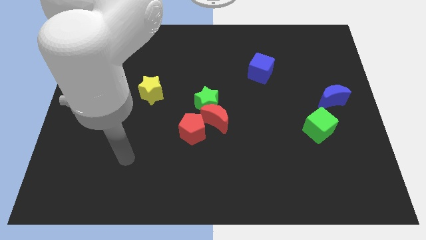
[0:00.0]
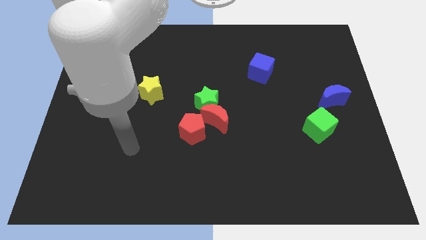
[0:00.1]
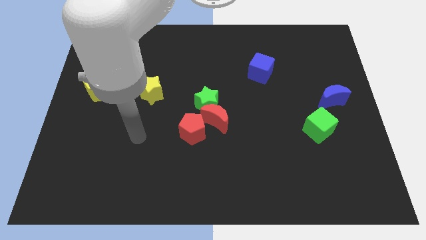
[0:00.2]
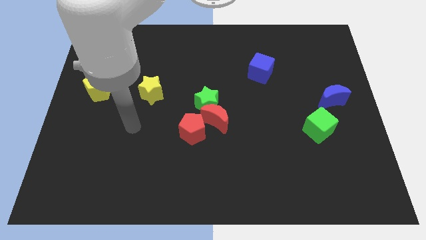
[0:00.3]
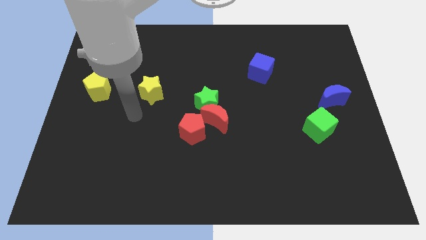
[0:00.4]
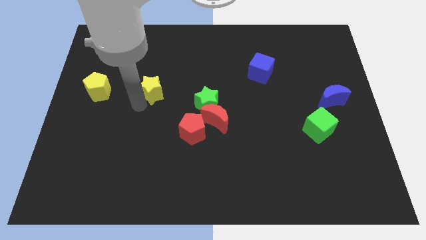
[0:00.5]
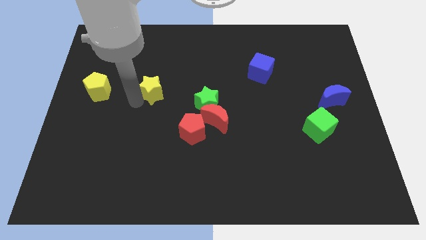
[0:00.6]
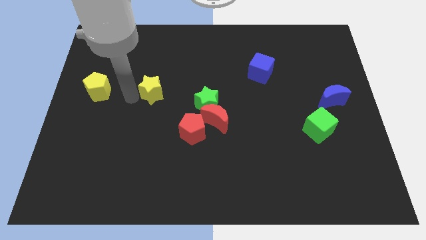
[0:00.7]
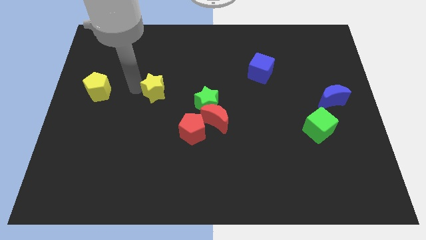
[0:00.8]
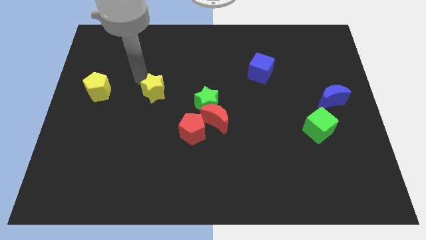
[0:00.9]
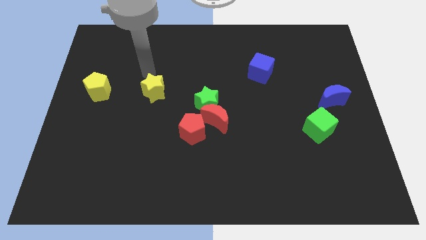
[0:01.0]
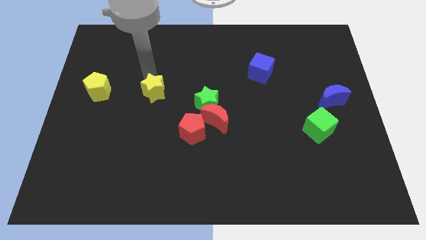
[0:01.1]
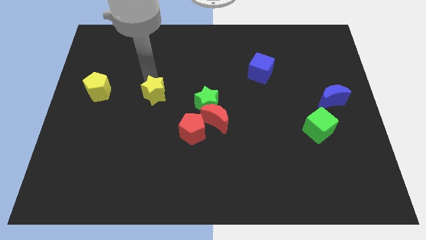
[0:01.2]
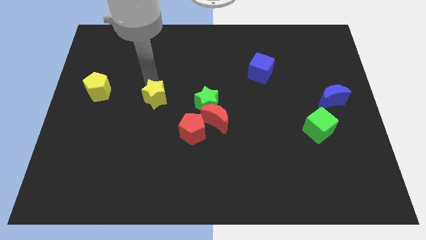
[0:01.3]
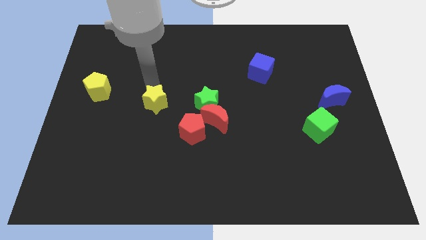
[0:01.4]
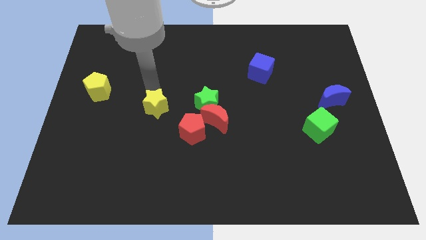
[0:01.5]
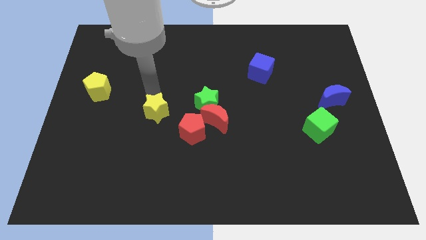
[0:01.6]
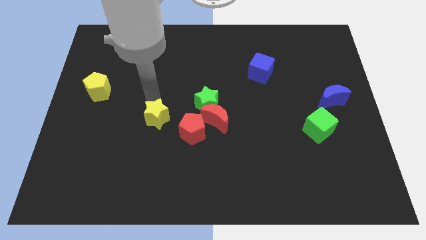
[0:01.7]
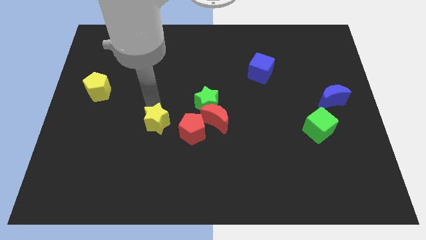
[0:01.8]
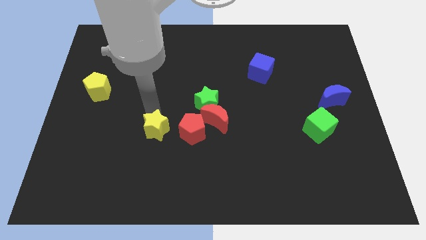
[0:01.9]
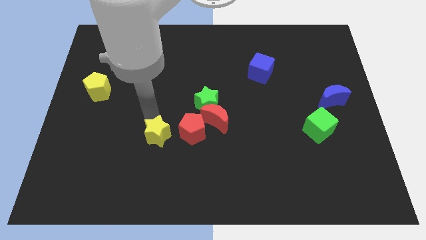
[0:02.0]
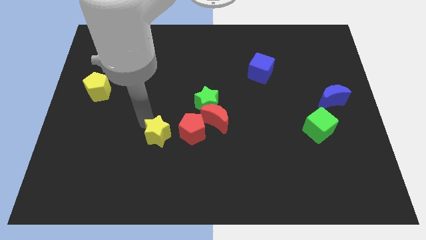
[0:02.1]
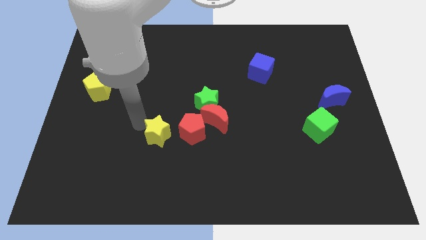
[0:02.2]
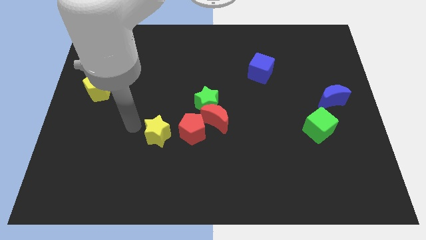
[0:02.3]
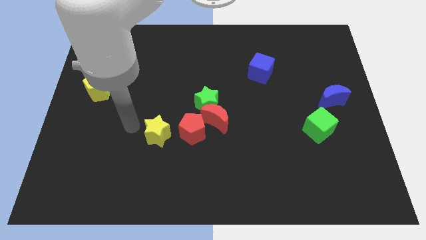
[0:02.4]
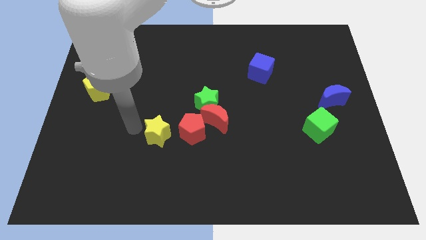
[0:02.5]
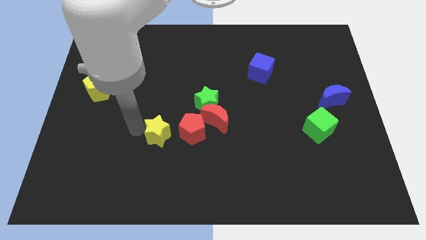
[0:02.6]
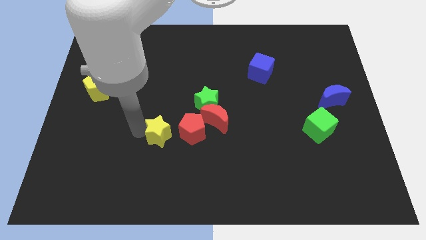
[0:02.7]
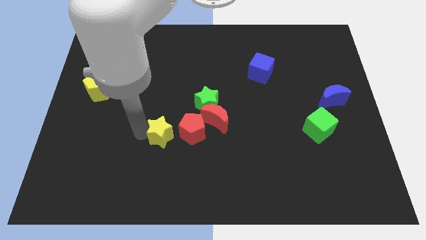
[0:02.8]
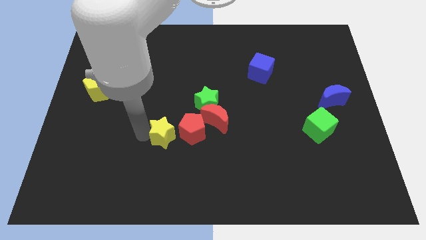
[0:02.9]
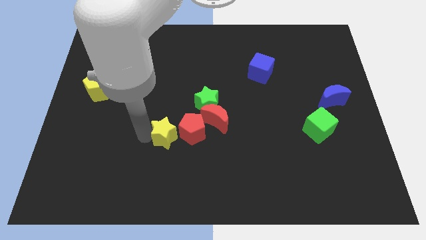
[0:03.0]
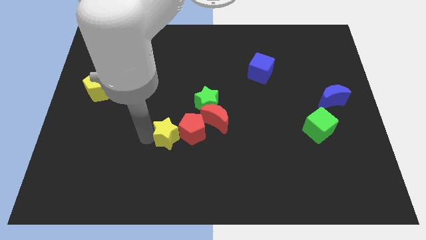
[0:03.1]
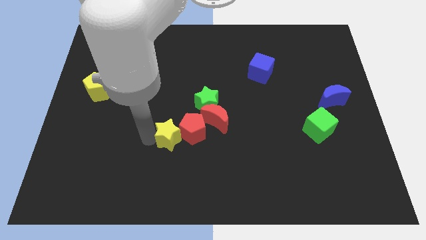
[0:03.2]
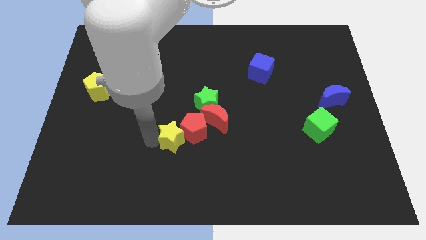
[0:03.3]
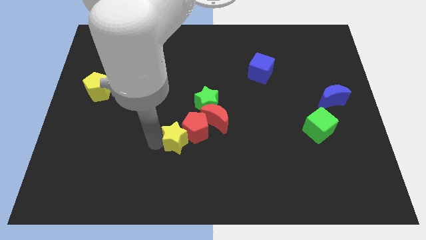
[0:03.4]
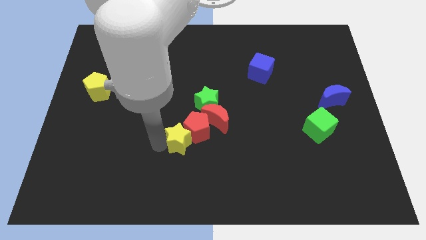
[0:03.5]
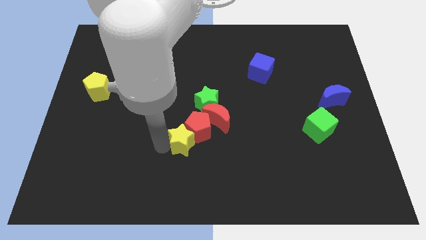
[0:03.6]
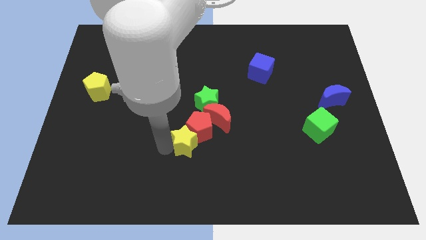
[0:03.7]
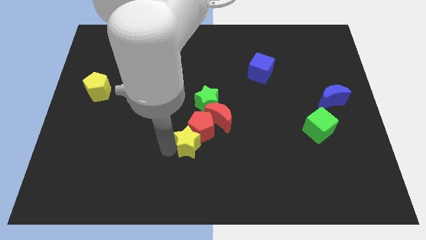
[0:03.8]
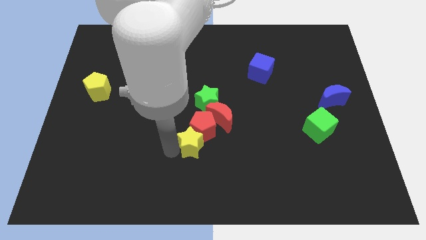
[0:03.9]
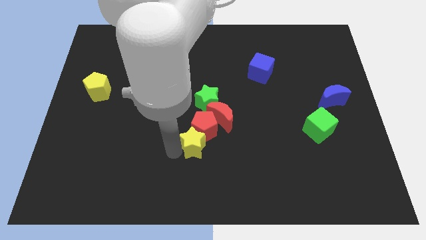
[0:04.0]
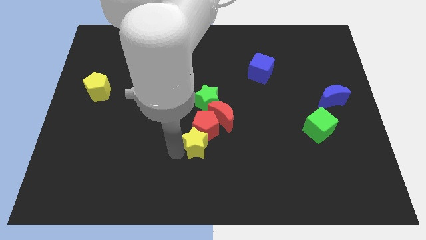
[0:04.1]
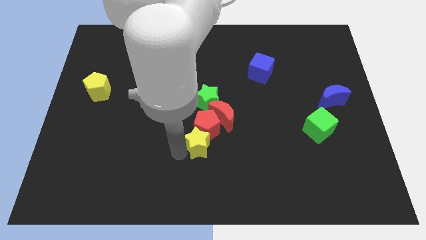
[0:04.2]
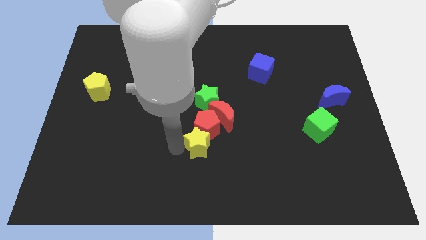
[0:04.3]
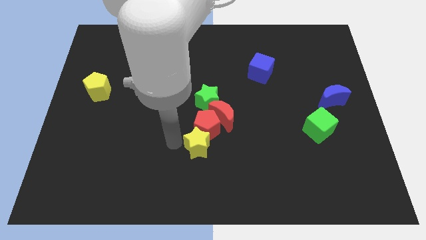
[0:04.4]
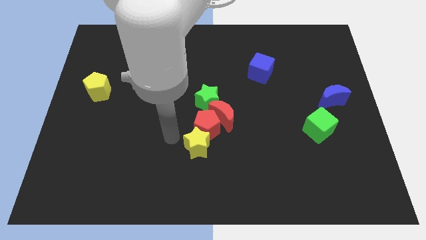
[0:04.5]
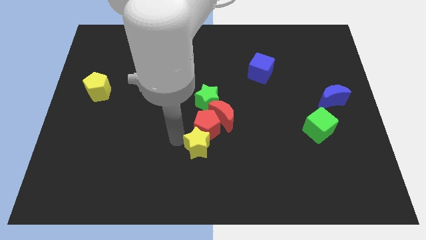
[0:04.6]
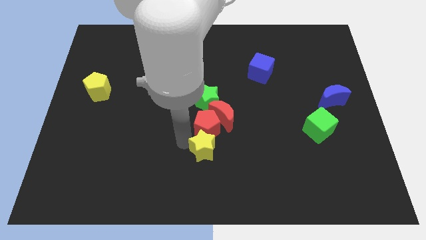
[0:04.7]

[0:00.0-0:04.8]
push the yellow star down and to the right

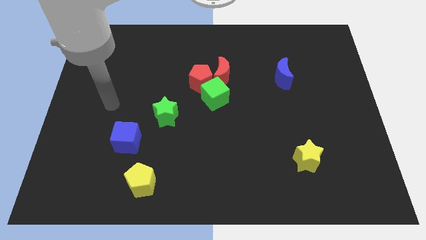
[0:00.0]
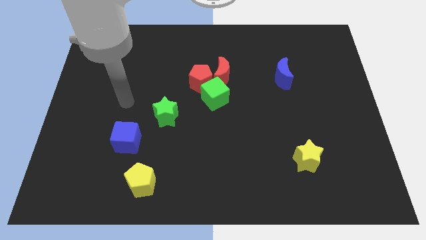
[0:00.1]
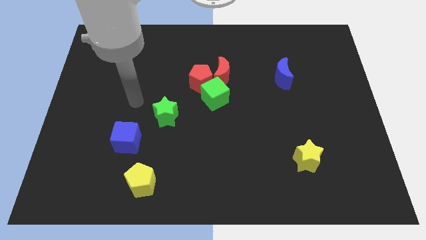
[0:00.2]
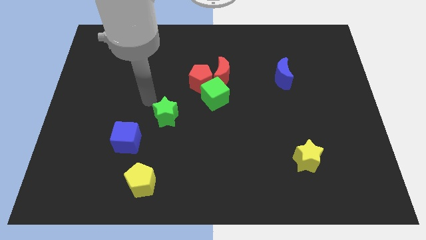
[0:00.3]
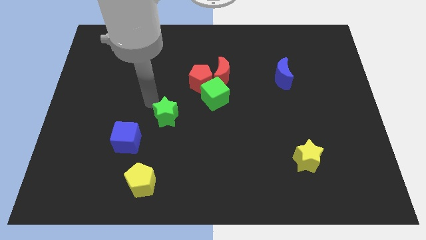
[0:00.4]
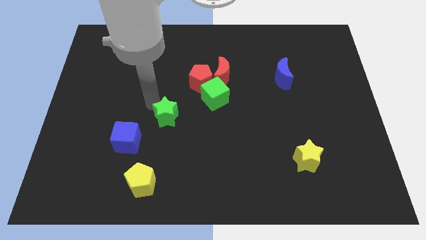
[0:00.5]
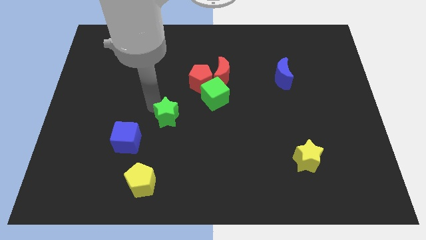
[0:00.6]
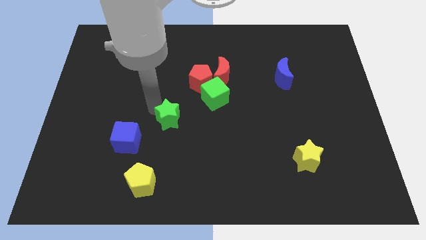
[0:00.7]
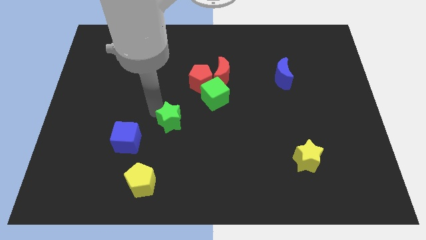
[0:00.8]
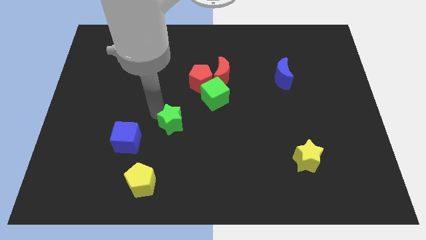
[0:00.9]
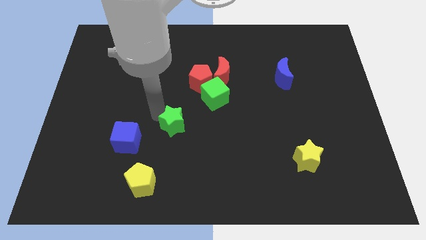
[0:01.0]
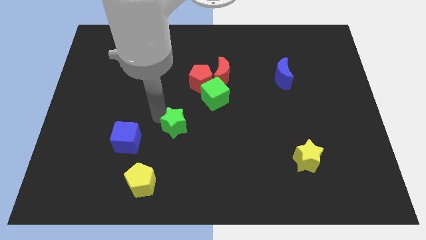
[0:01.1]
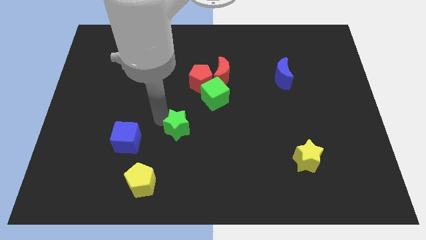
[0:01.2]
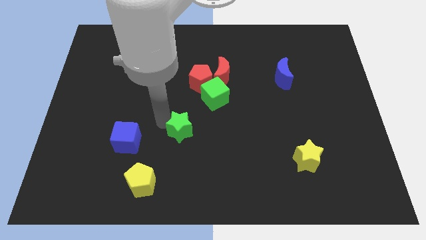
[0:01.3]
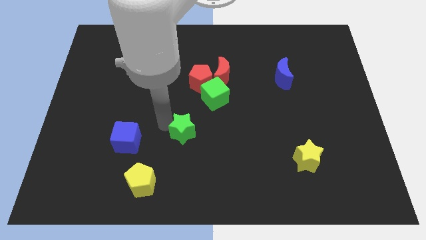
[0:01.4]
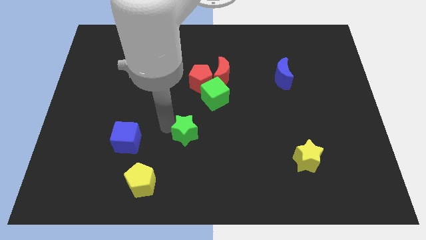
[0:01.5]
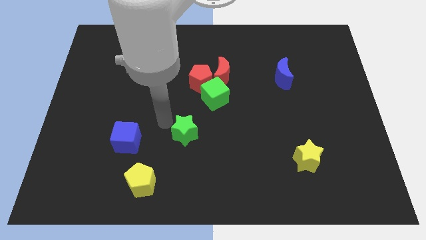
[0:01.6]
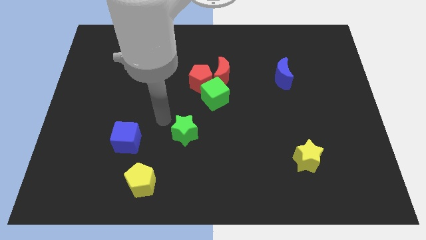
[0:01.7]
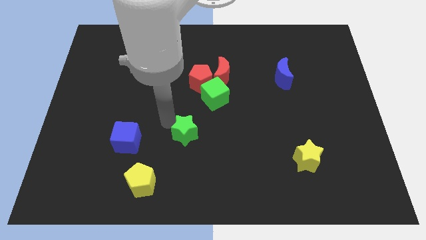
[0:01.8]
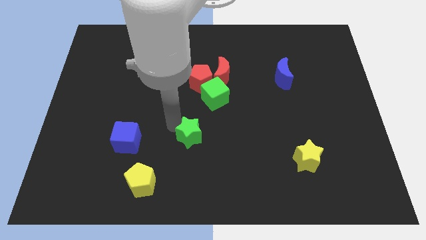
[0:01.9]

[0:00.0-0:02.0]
slightly move the green star downwards and then right

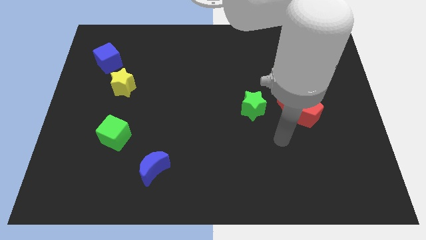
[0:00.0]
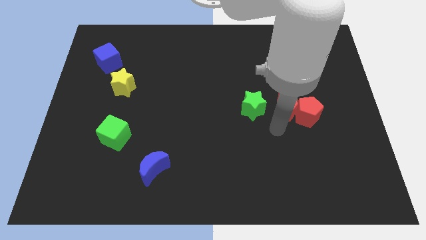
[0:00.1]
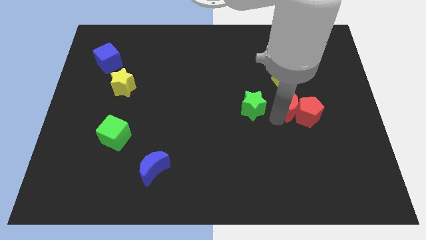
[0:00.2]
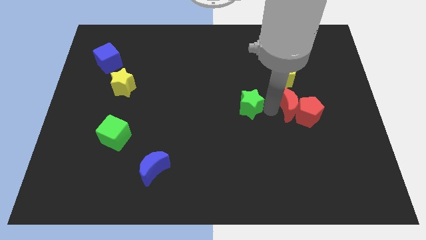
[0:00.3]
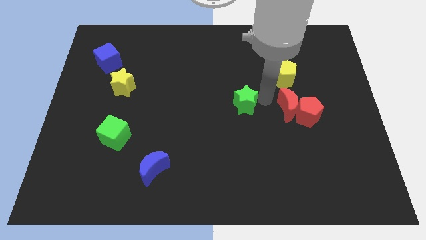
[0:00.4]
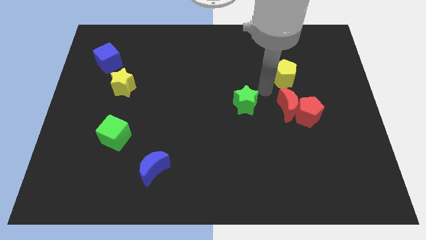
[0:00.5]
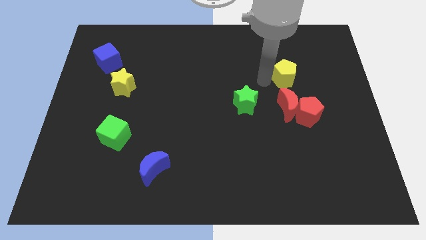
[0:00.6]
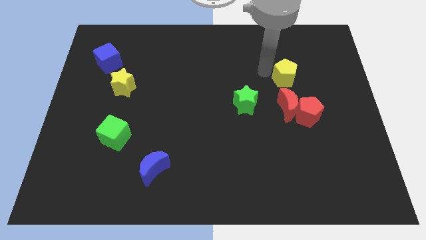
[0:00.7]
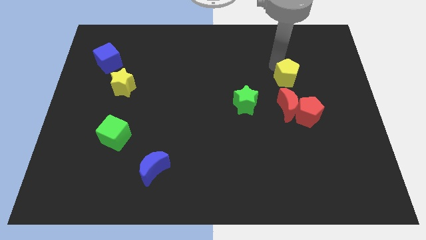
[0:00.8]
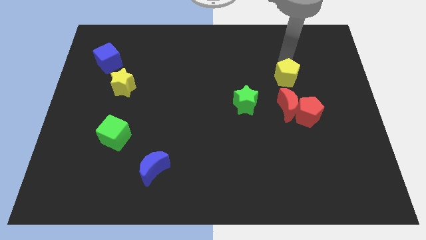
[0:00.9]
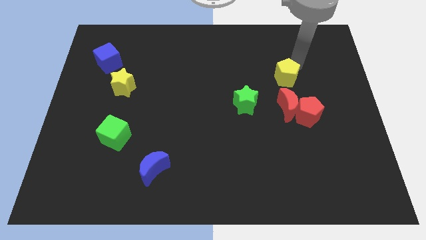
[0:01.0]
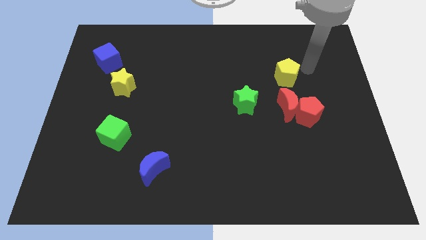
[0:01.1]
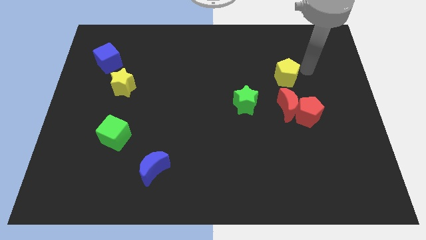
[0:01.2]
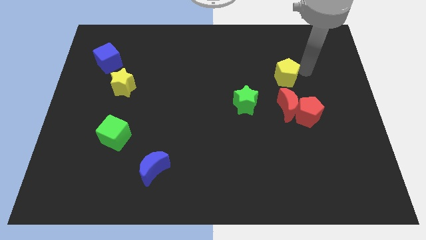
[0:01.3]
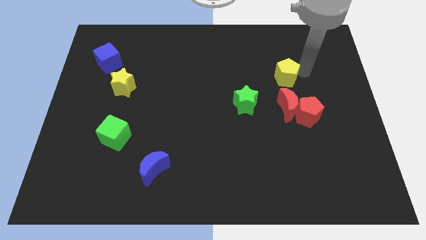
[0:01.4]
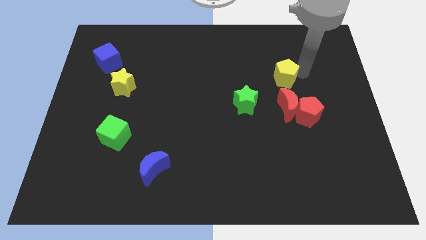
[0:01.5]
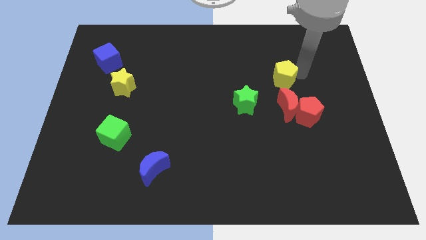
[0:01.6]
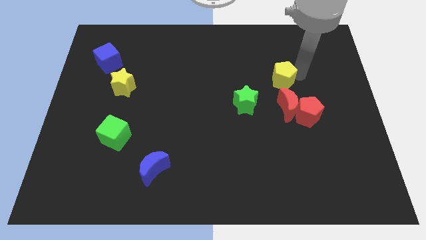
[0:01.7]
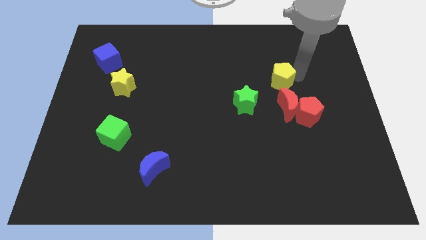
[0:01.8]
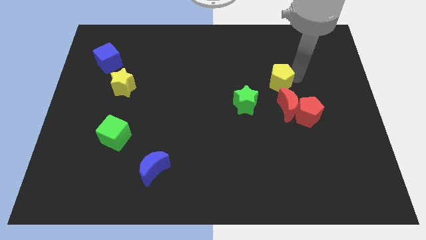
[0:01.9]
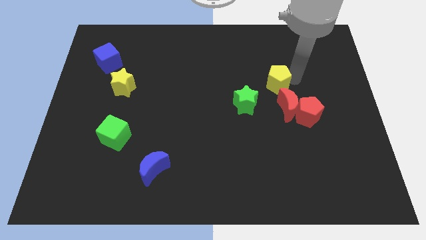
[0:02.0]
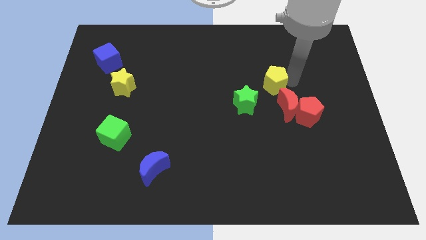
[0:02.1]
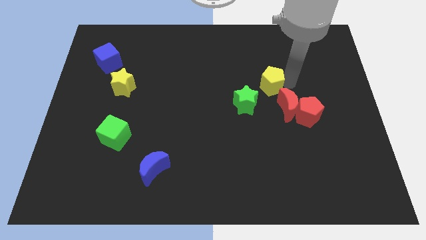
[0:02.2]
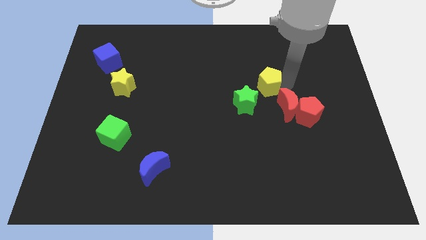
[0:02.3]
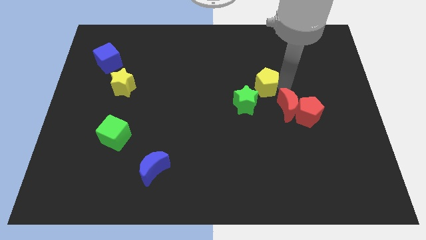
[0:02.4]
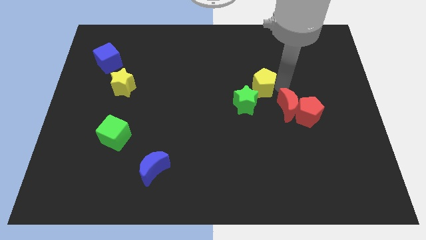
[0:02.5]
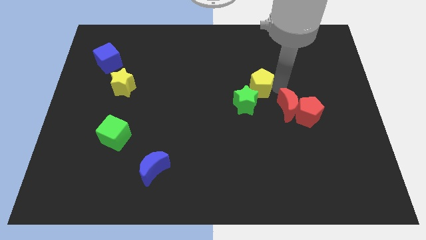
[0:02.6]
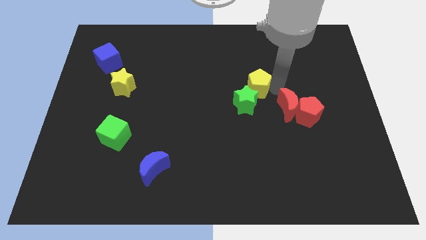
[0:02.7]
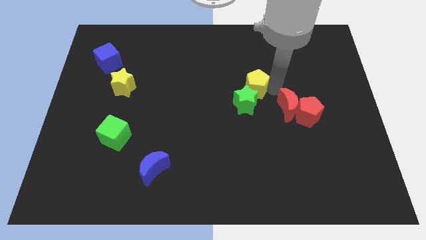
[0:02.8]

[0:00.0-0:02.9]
move the yellow pentagon to the left a little
